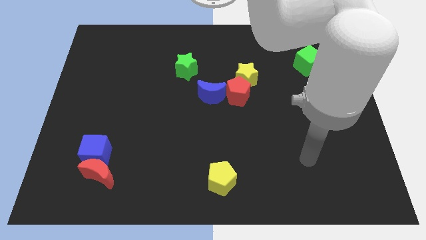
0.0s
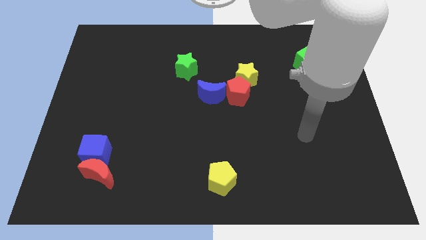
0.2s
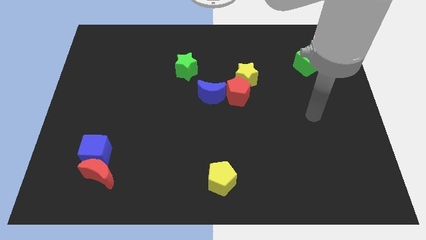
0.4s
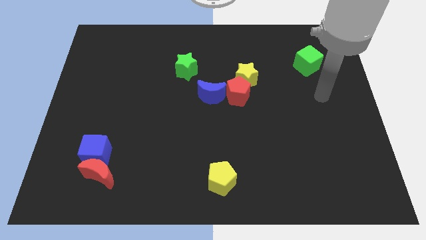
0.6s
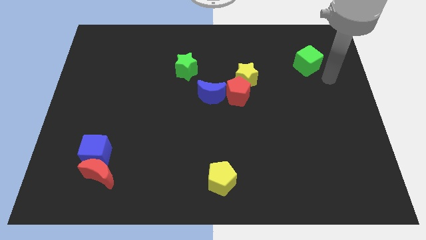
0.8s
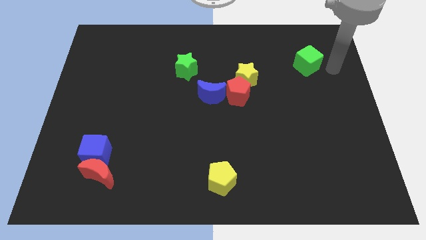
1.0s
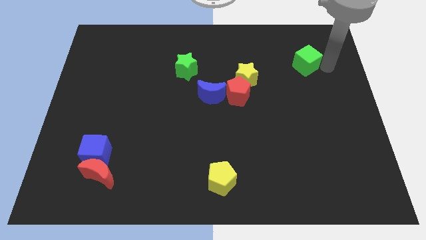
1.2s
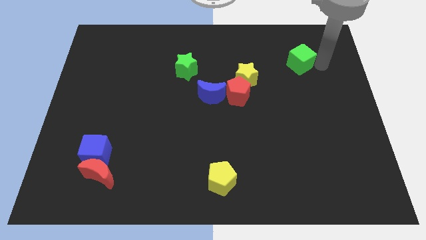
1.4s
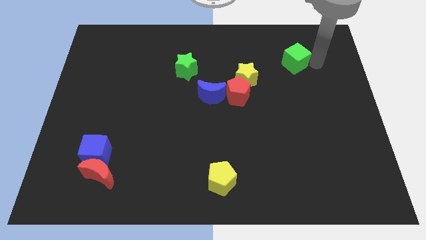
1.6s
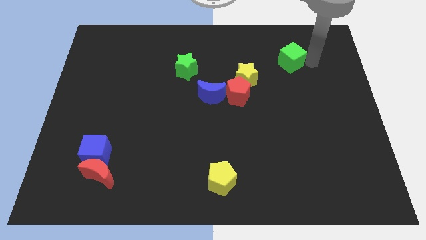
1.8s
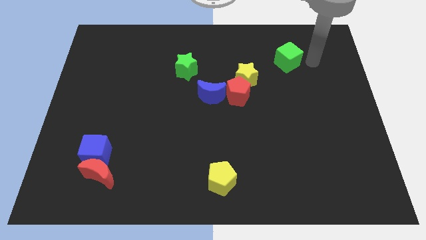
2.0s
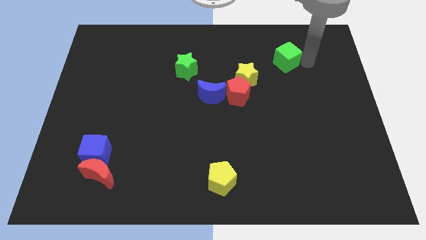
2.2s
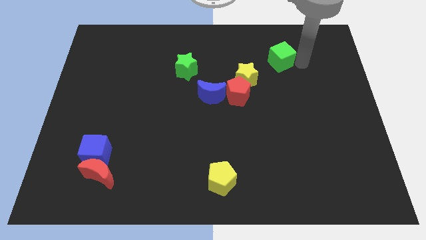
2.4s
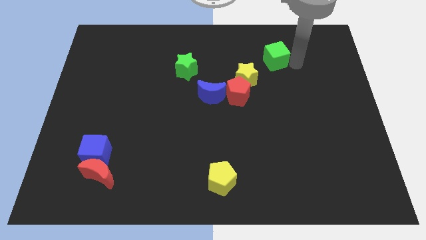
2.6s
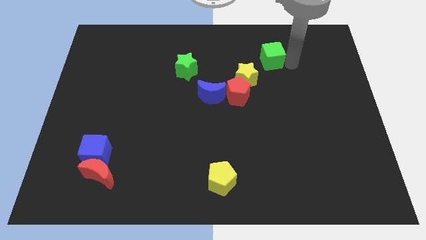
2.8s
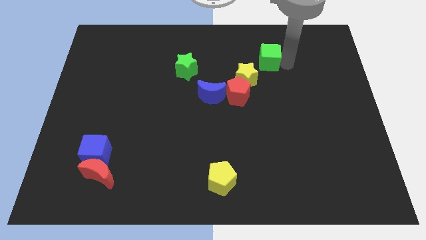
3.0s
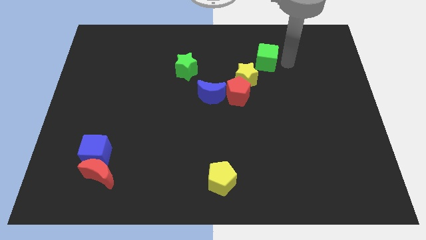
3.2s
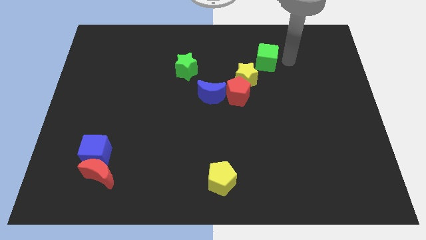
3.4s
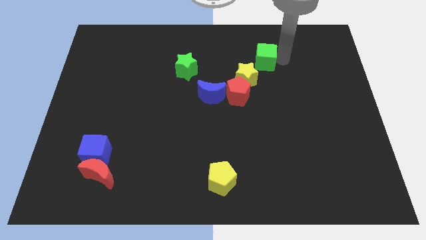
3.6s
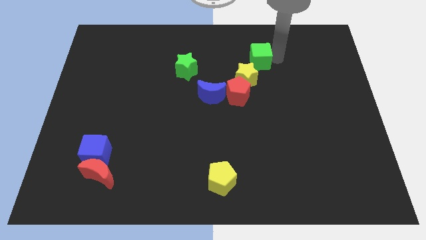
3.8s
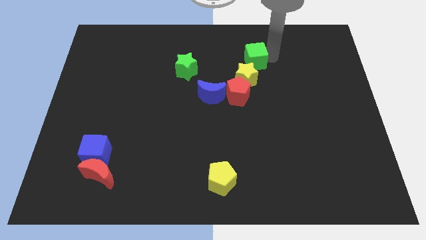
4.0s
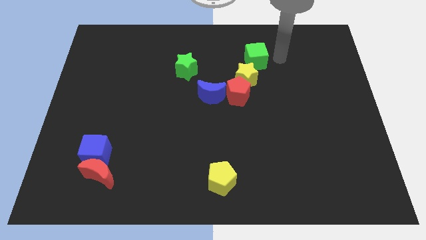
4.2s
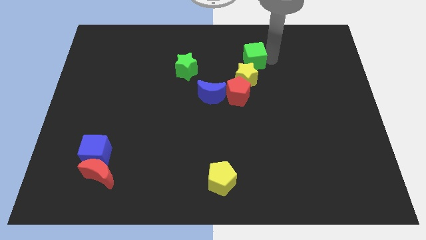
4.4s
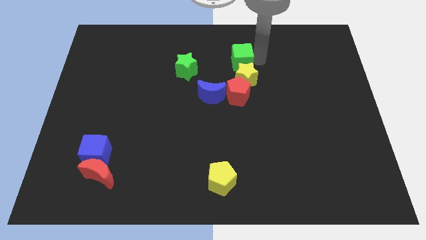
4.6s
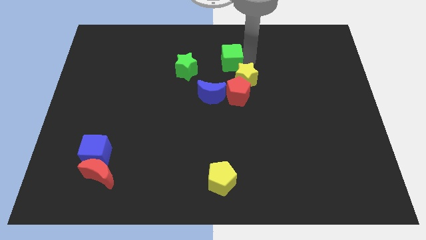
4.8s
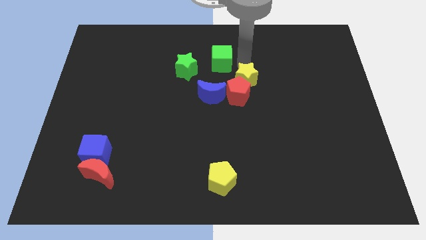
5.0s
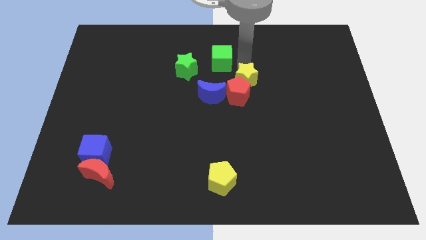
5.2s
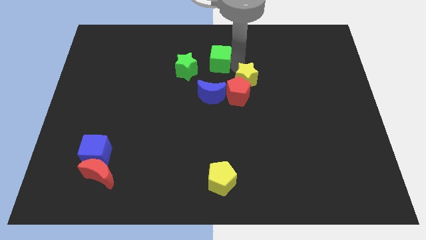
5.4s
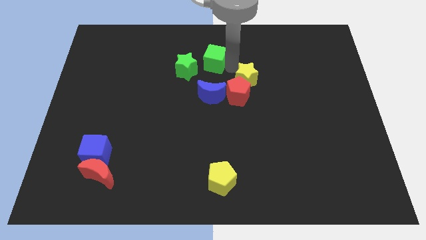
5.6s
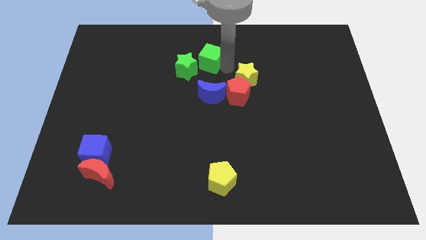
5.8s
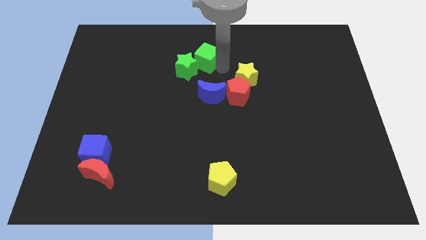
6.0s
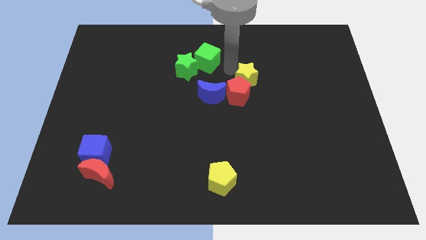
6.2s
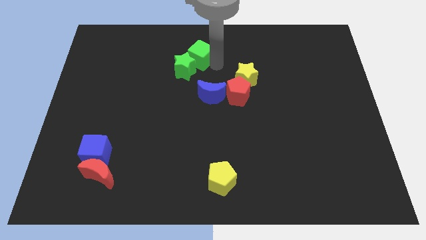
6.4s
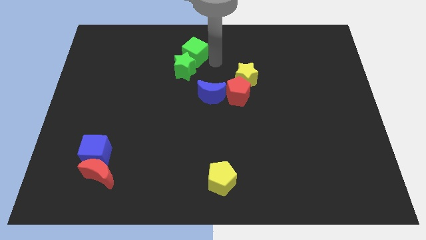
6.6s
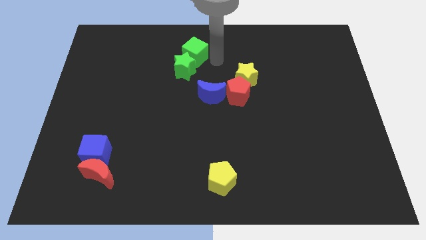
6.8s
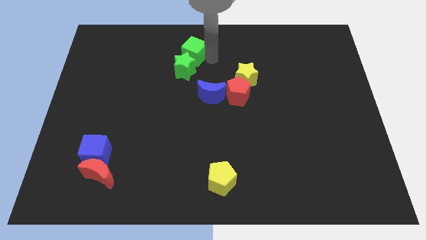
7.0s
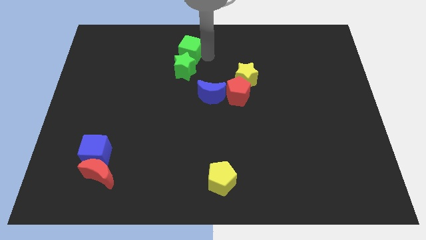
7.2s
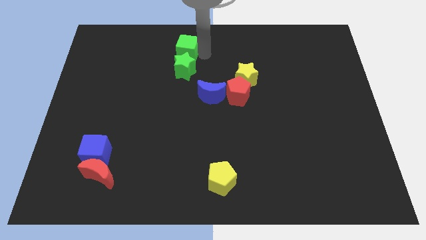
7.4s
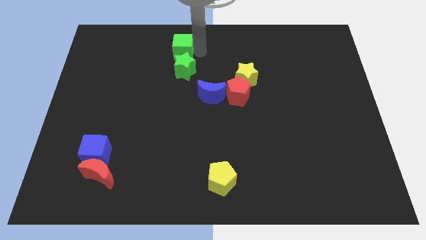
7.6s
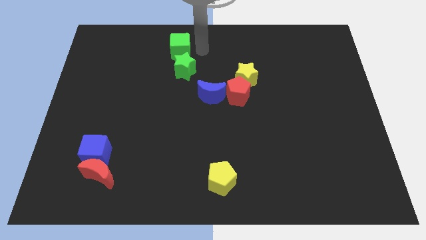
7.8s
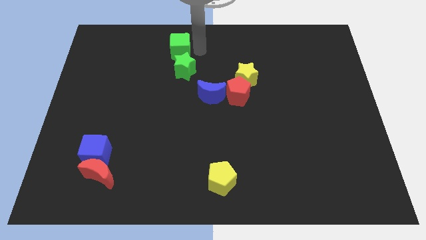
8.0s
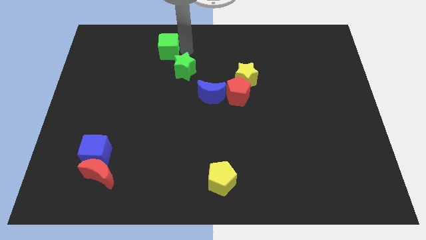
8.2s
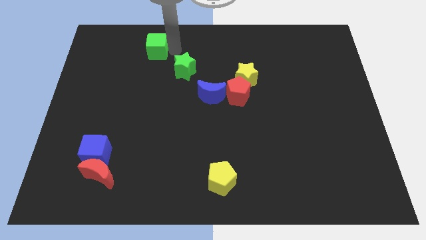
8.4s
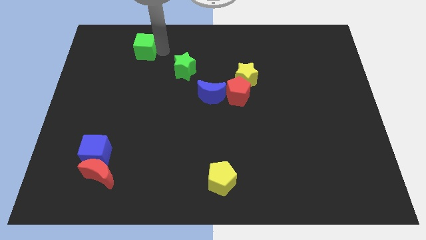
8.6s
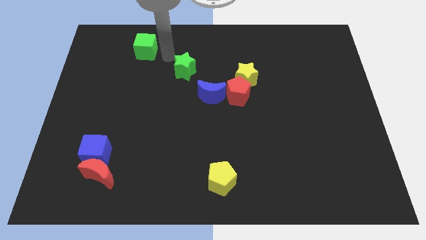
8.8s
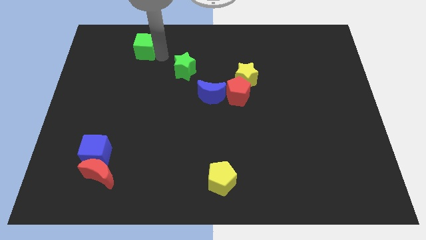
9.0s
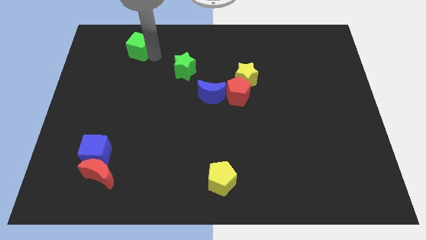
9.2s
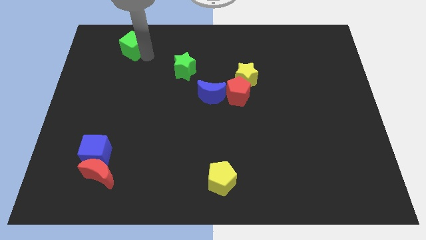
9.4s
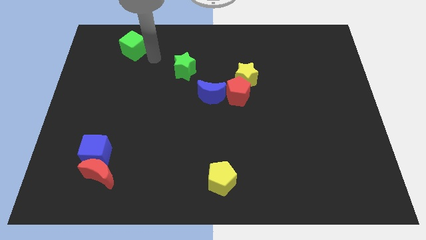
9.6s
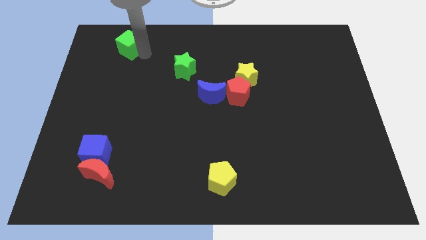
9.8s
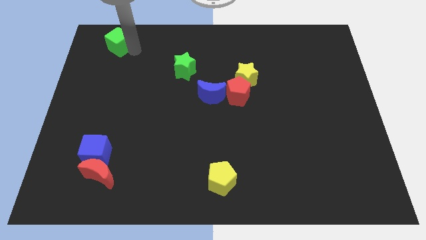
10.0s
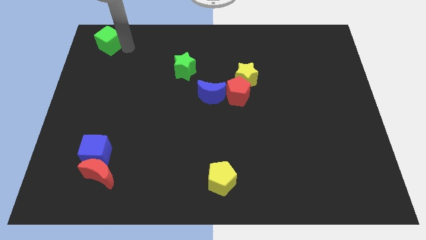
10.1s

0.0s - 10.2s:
put the green cube to the top left corner

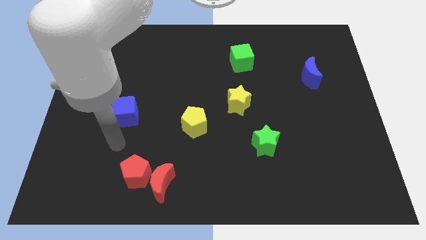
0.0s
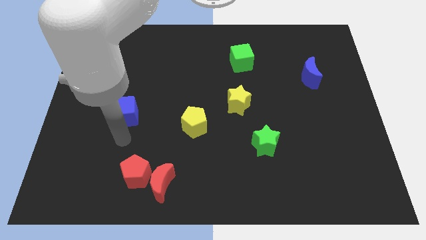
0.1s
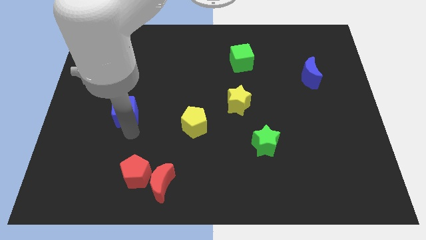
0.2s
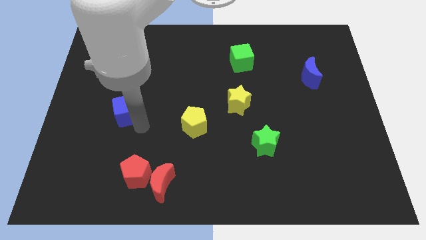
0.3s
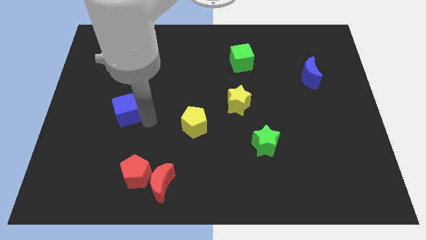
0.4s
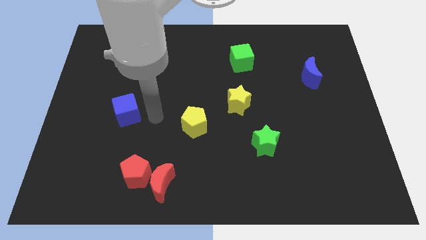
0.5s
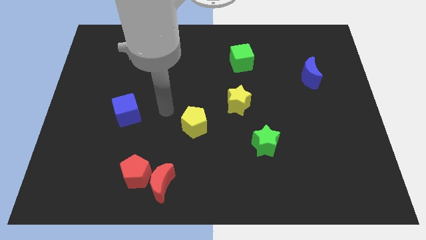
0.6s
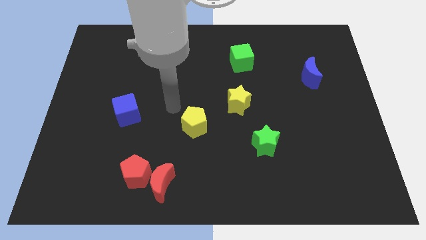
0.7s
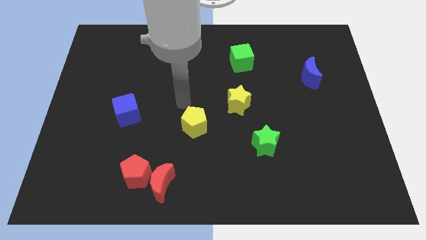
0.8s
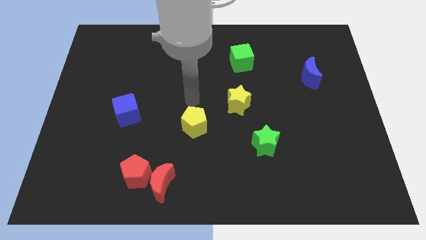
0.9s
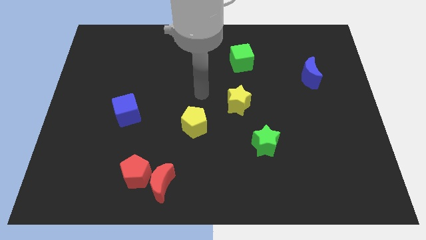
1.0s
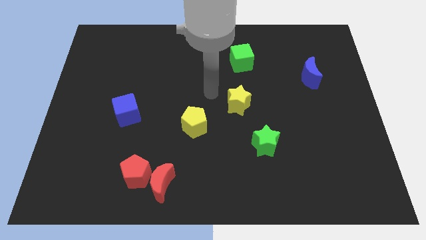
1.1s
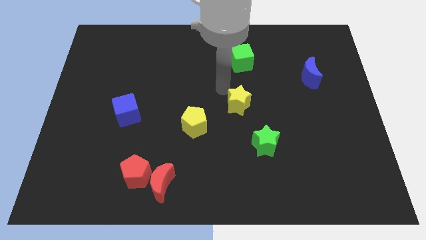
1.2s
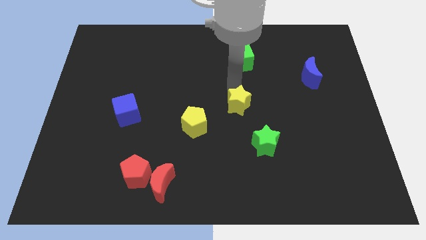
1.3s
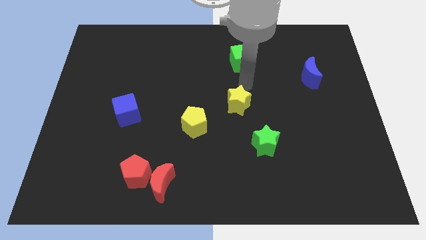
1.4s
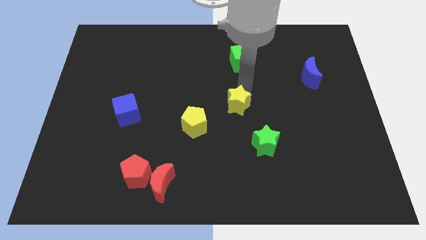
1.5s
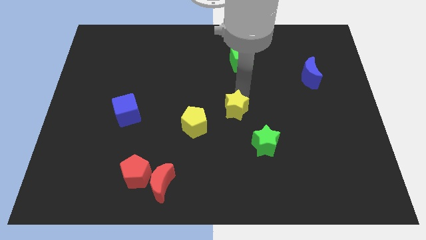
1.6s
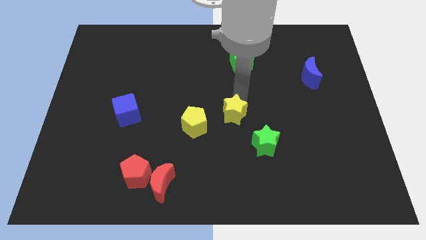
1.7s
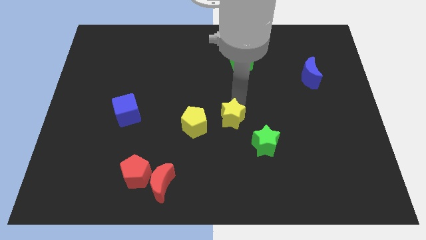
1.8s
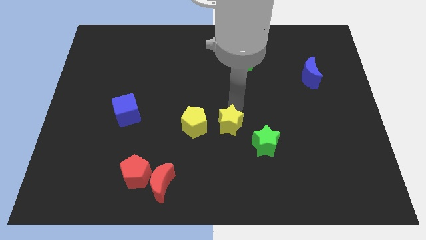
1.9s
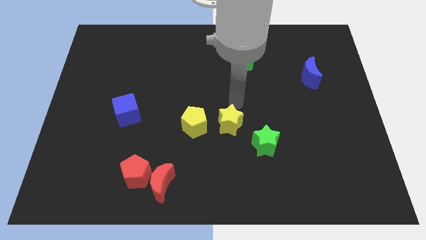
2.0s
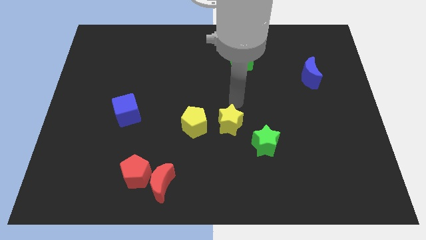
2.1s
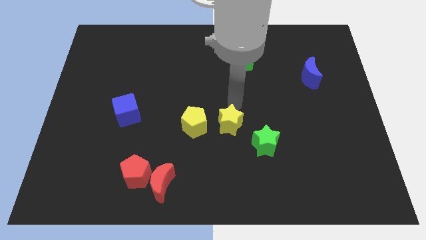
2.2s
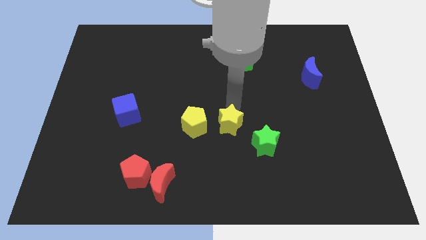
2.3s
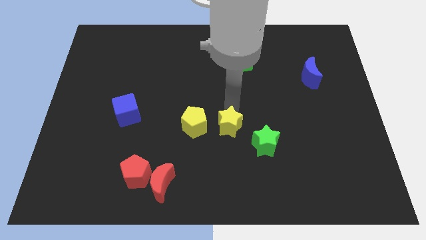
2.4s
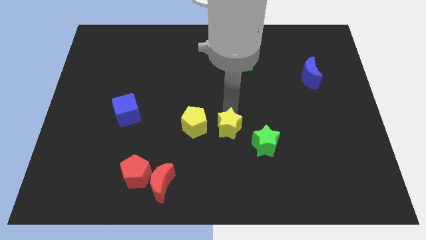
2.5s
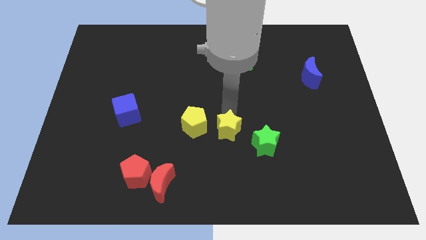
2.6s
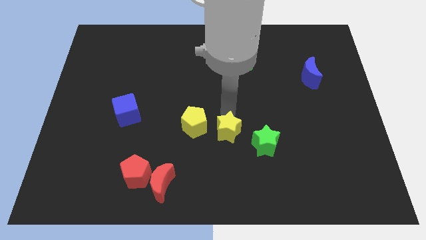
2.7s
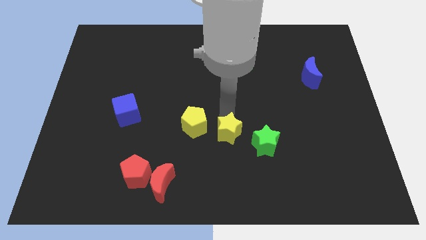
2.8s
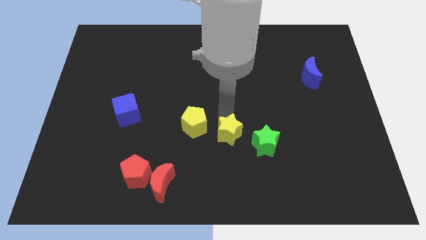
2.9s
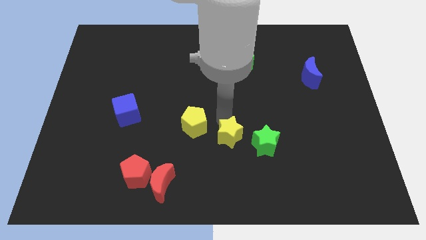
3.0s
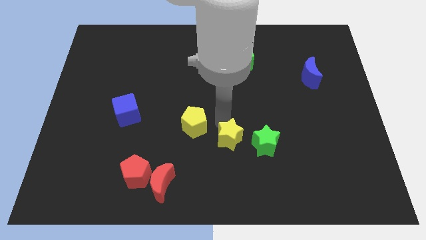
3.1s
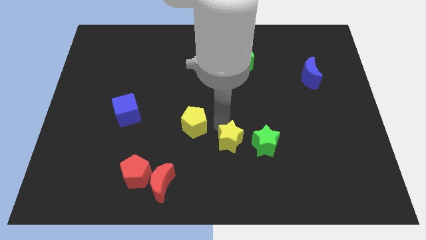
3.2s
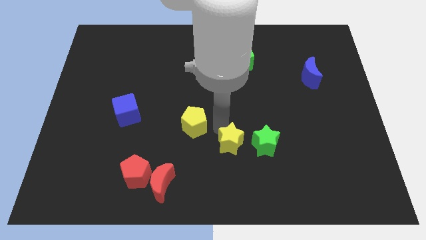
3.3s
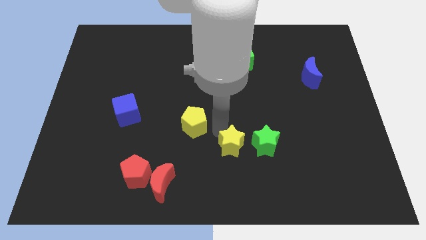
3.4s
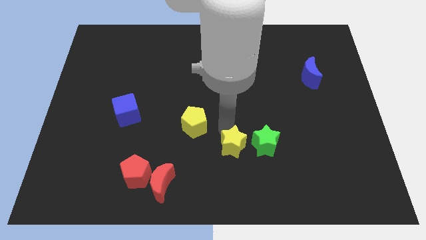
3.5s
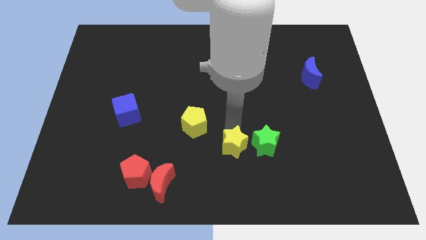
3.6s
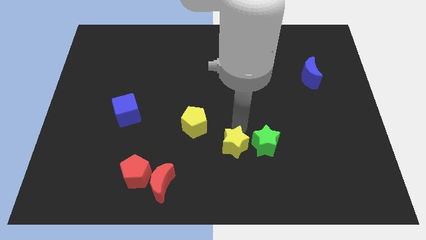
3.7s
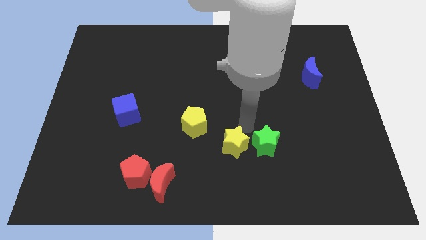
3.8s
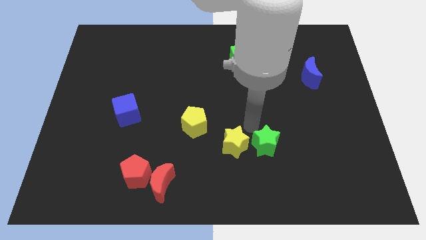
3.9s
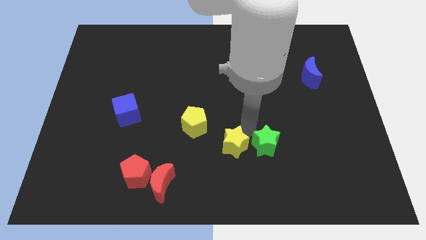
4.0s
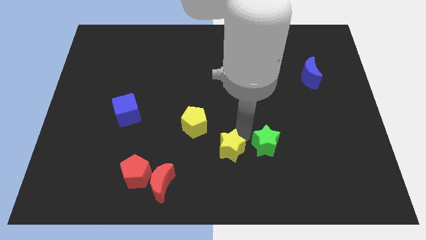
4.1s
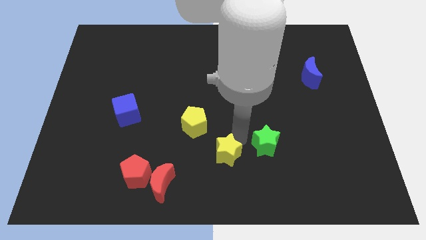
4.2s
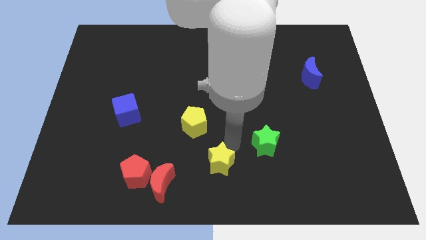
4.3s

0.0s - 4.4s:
move the yellow star to the bottom side
